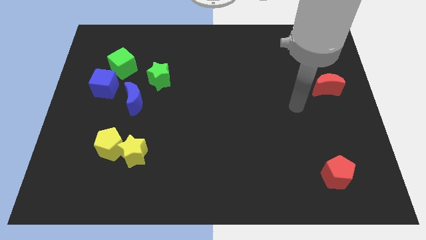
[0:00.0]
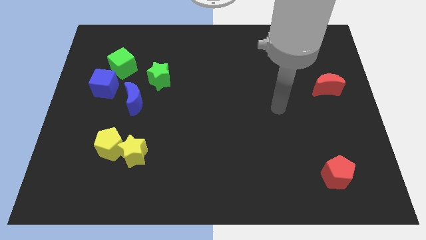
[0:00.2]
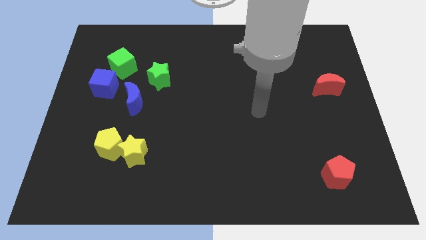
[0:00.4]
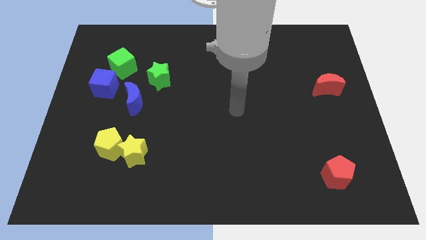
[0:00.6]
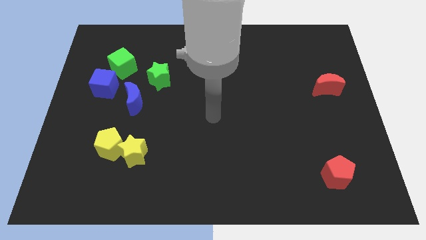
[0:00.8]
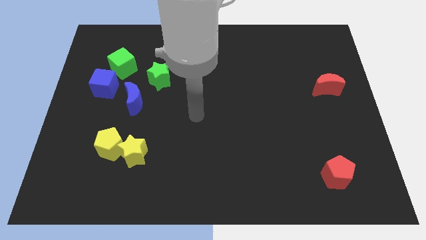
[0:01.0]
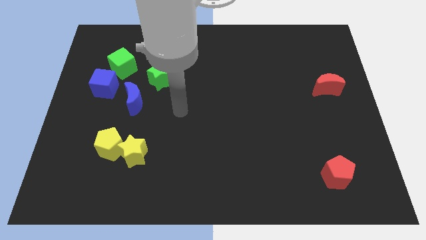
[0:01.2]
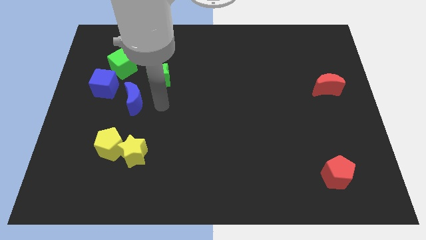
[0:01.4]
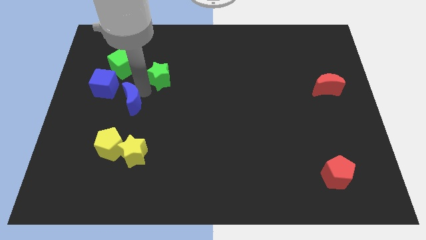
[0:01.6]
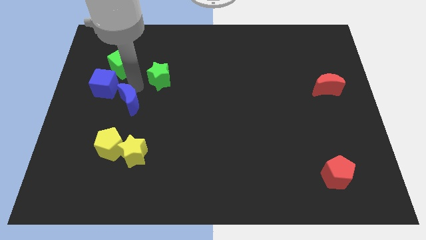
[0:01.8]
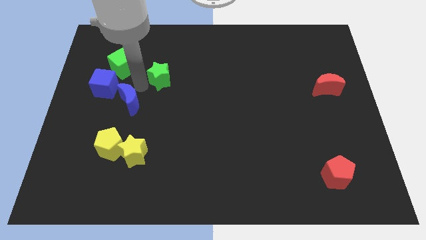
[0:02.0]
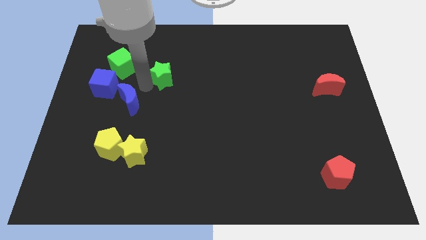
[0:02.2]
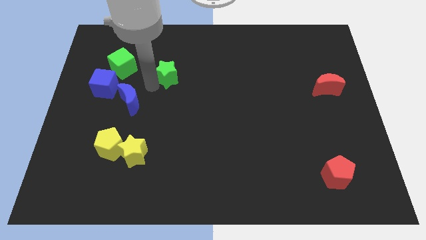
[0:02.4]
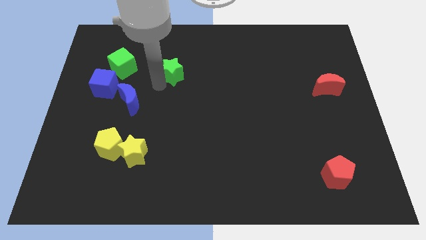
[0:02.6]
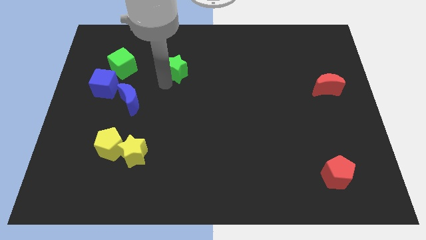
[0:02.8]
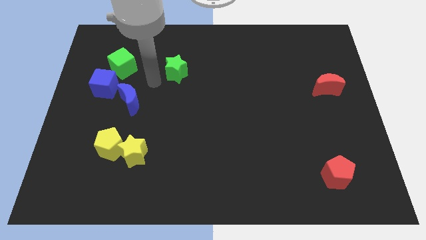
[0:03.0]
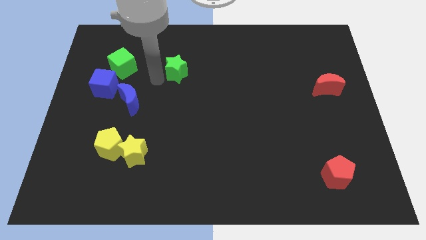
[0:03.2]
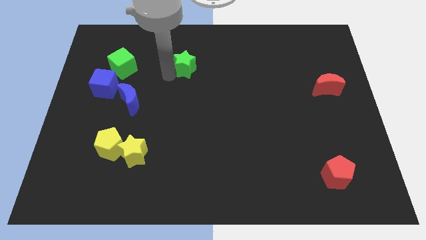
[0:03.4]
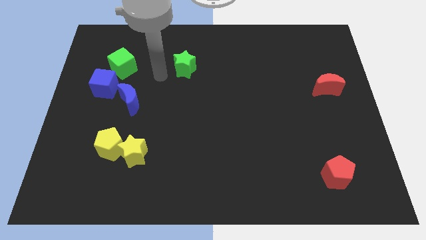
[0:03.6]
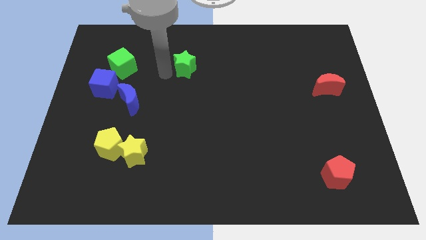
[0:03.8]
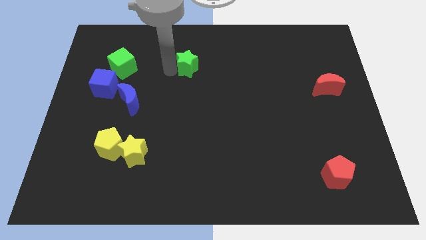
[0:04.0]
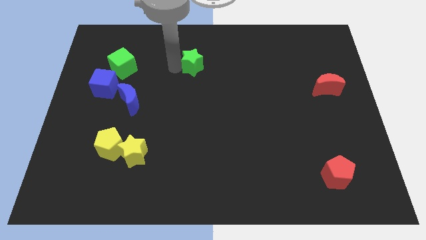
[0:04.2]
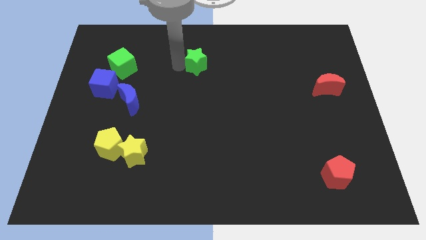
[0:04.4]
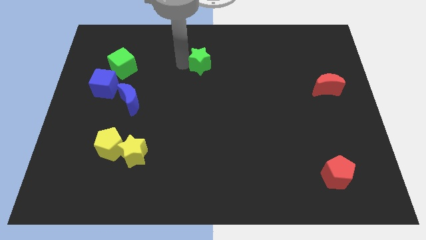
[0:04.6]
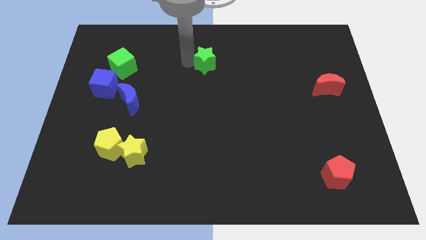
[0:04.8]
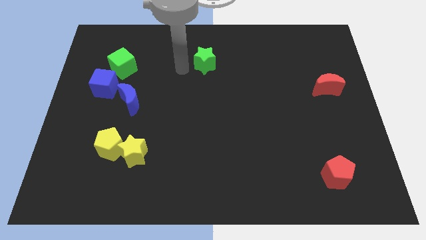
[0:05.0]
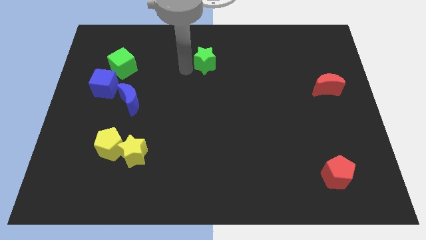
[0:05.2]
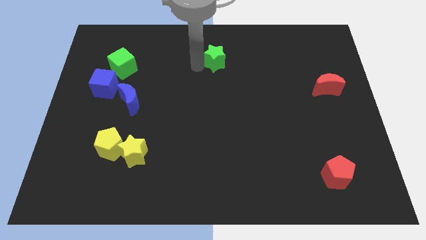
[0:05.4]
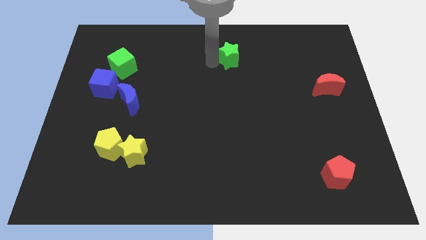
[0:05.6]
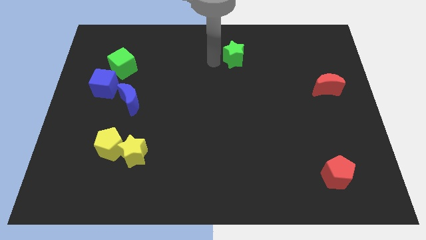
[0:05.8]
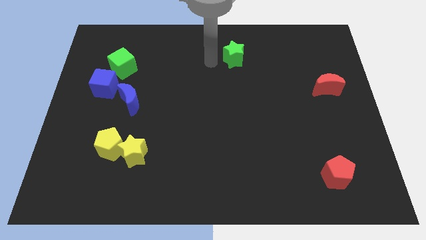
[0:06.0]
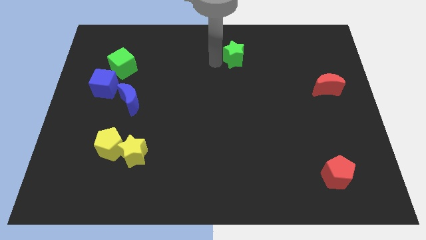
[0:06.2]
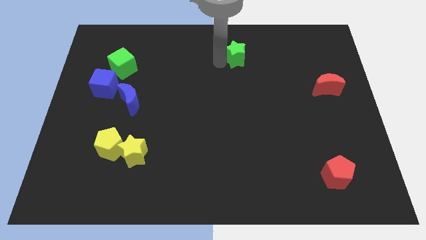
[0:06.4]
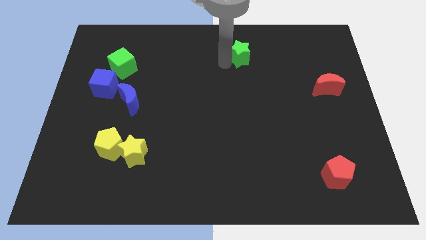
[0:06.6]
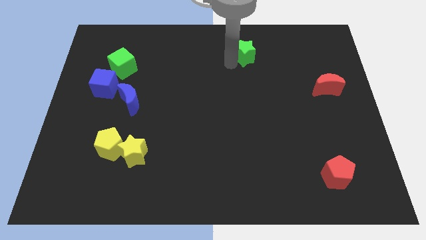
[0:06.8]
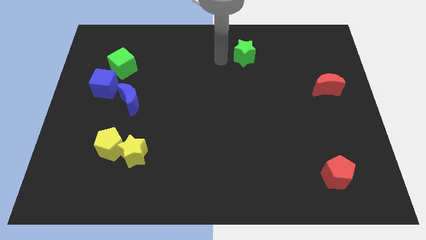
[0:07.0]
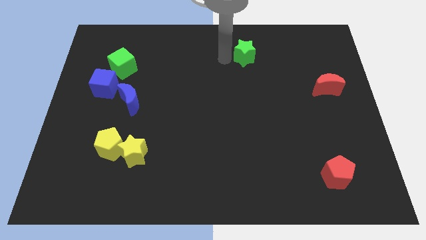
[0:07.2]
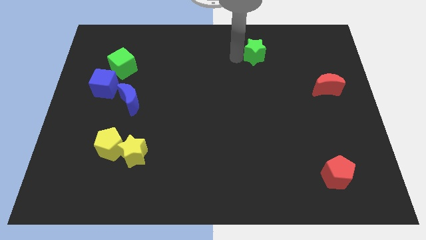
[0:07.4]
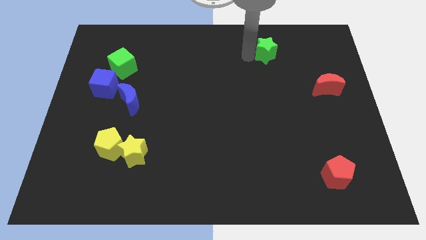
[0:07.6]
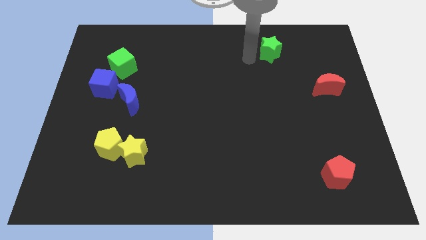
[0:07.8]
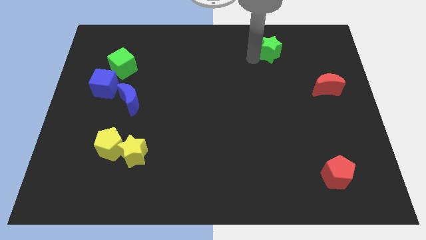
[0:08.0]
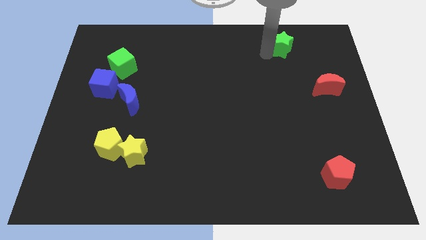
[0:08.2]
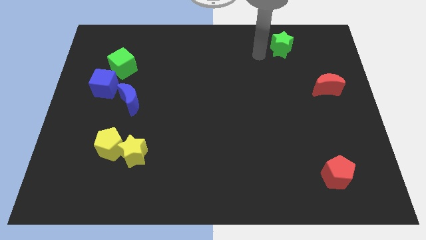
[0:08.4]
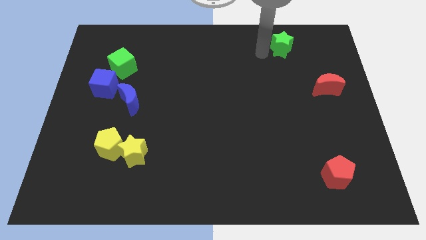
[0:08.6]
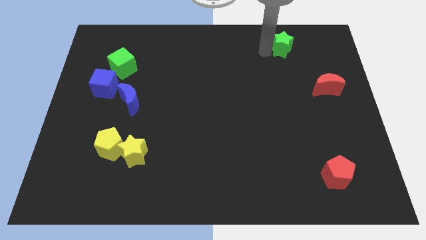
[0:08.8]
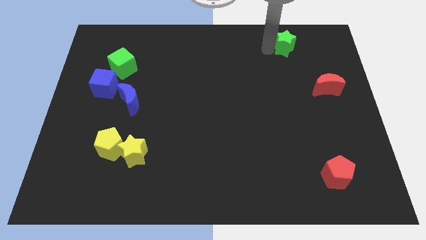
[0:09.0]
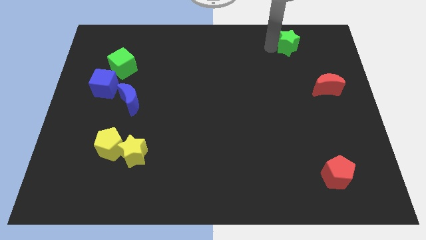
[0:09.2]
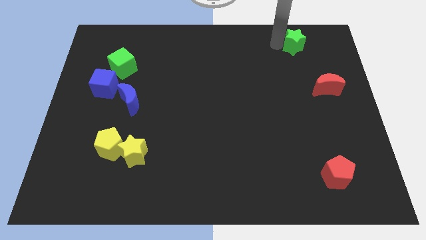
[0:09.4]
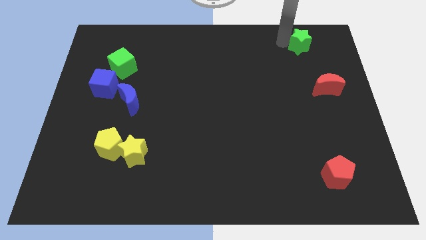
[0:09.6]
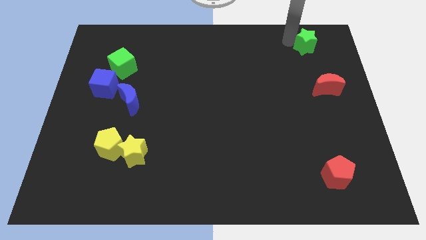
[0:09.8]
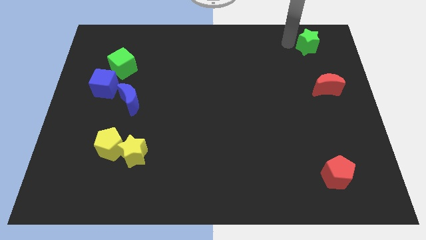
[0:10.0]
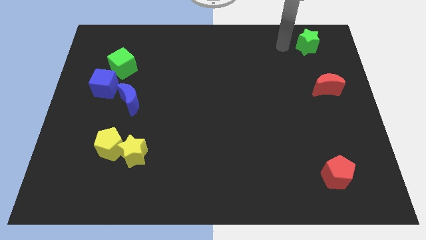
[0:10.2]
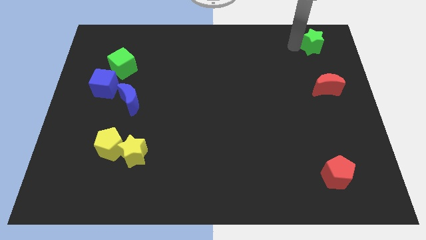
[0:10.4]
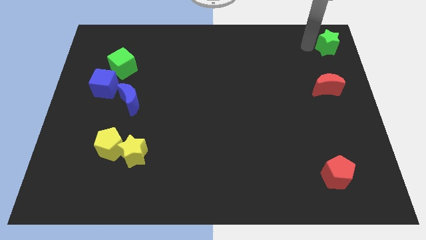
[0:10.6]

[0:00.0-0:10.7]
slide the green star to the top right corner
